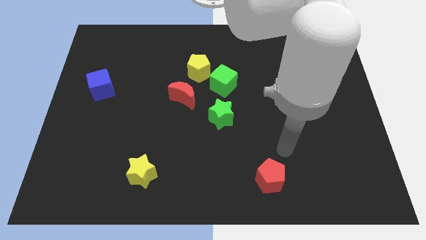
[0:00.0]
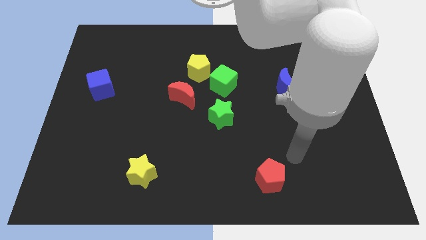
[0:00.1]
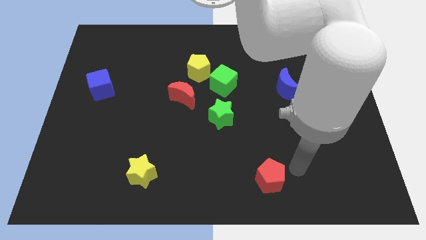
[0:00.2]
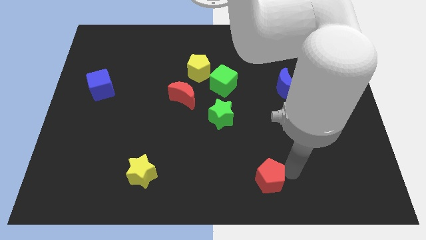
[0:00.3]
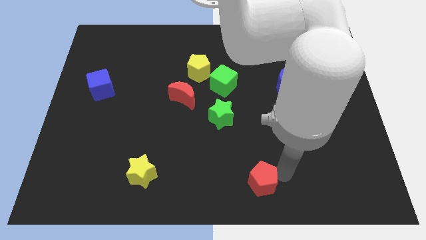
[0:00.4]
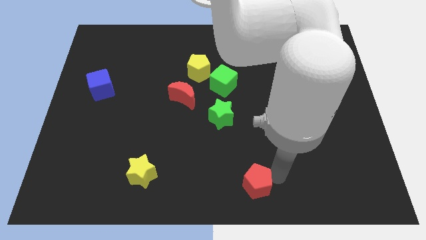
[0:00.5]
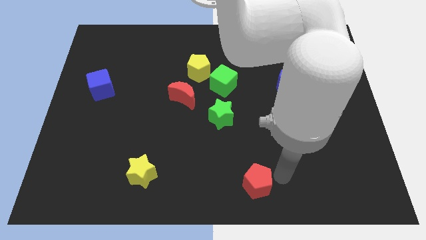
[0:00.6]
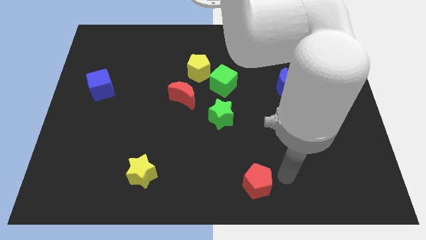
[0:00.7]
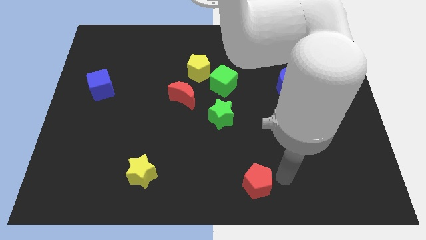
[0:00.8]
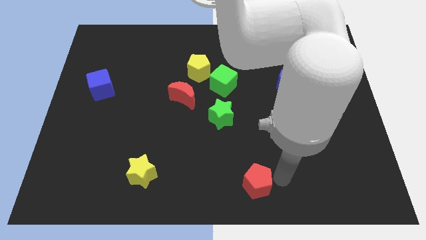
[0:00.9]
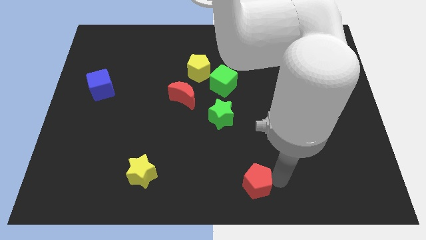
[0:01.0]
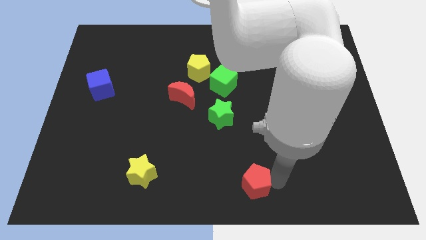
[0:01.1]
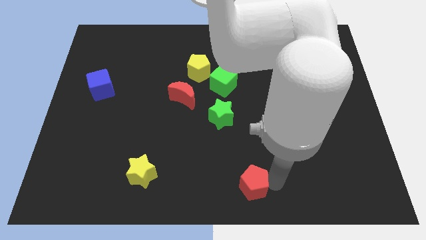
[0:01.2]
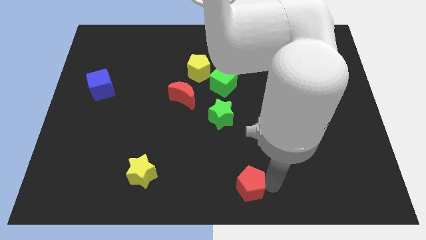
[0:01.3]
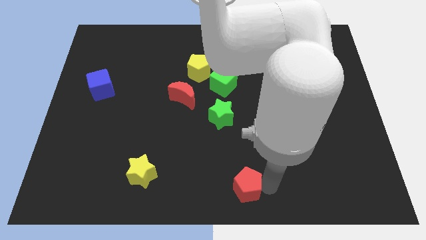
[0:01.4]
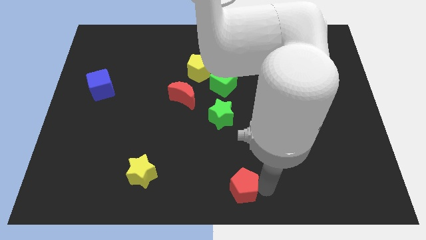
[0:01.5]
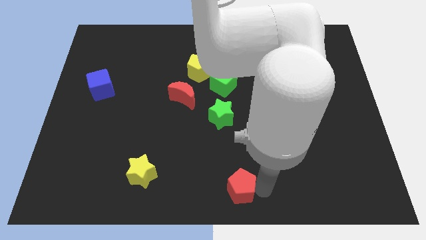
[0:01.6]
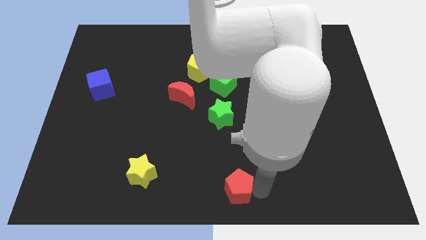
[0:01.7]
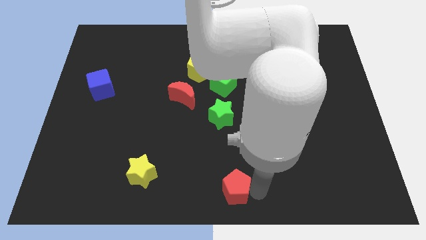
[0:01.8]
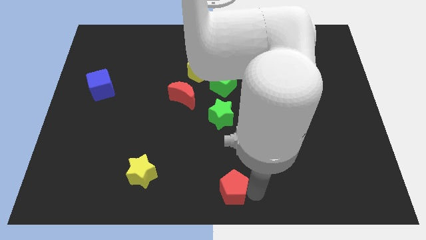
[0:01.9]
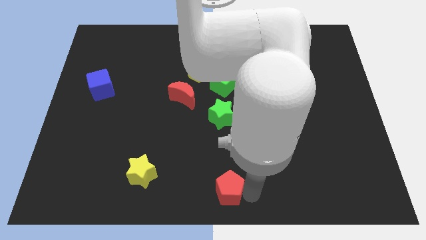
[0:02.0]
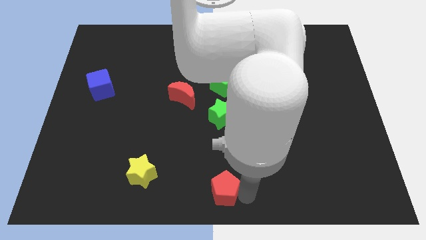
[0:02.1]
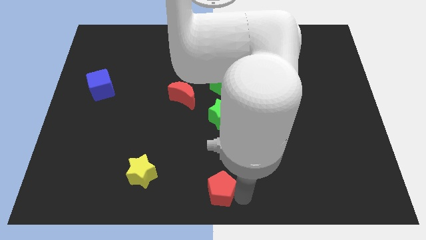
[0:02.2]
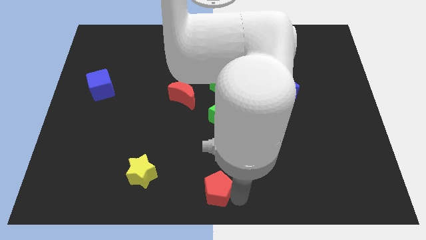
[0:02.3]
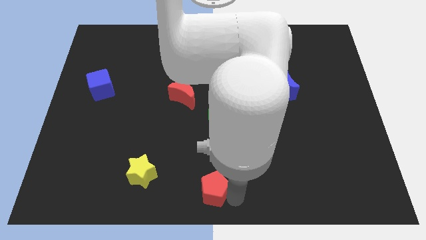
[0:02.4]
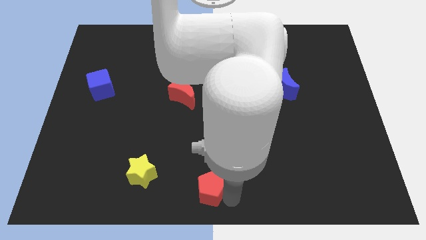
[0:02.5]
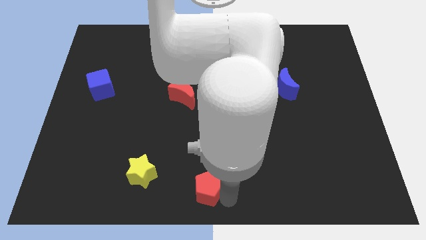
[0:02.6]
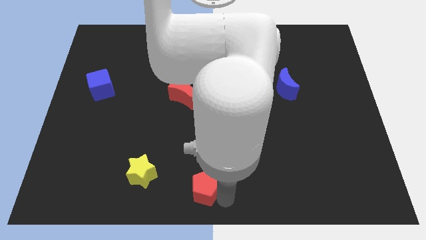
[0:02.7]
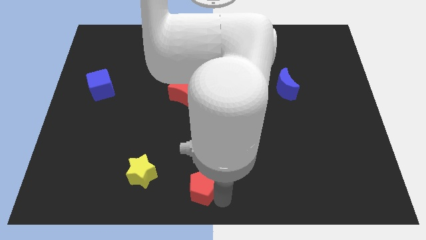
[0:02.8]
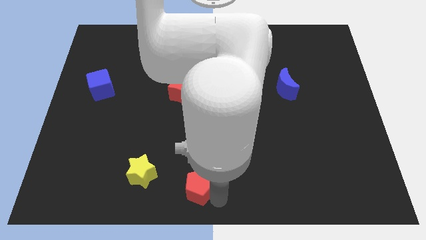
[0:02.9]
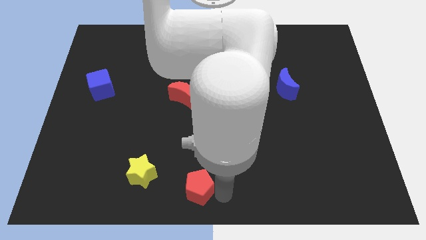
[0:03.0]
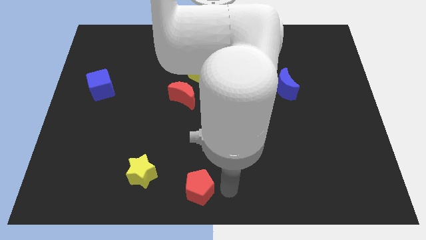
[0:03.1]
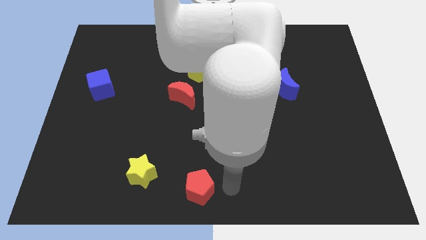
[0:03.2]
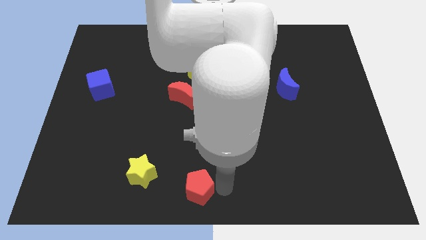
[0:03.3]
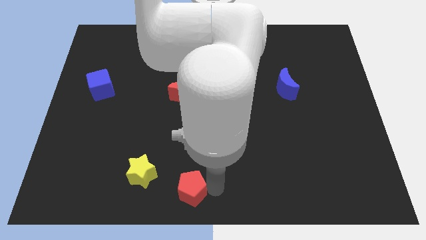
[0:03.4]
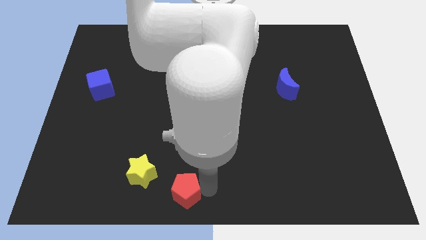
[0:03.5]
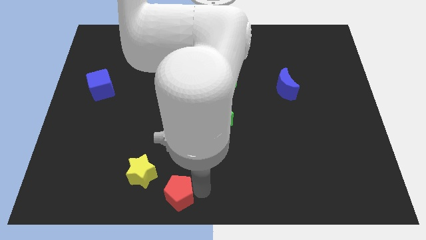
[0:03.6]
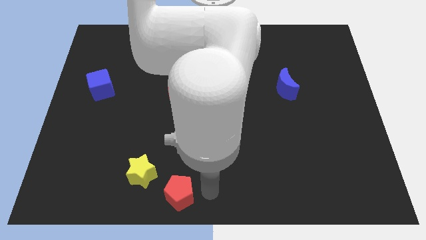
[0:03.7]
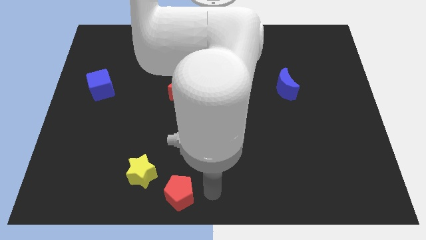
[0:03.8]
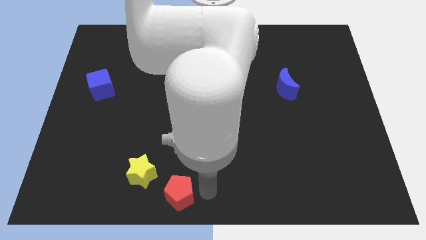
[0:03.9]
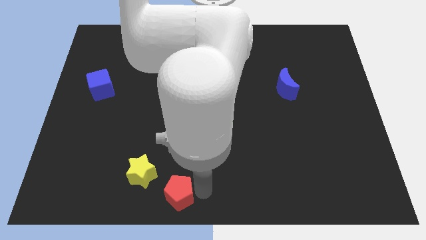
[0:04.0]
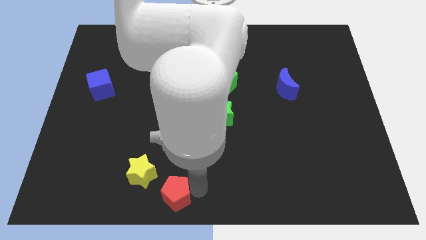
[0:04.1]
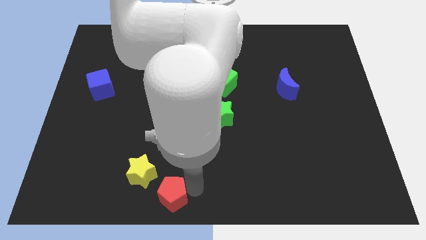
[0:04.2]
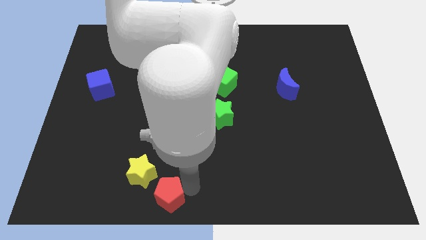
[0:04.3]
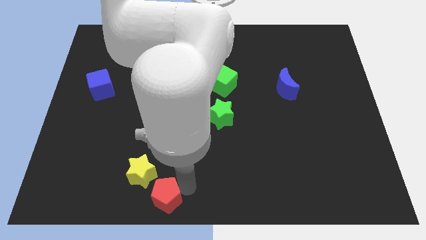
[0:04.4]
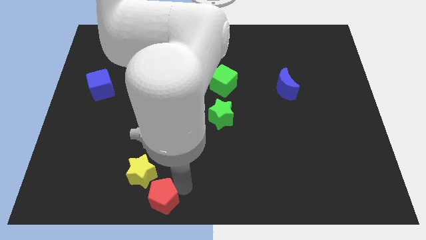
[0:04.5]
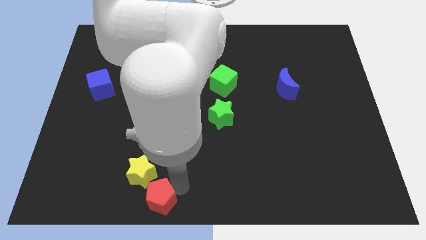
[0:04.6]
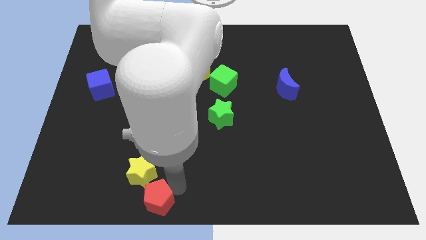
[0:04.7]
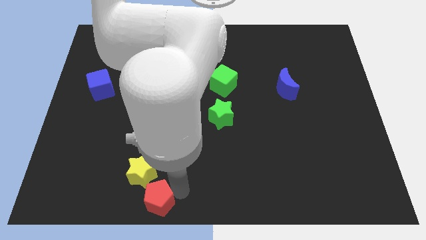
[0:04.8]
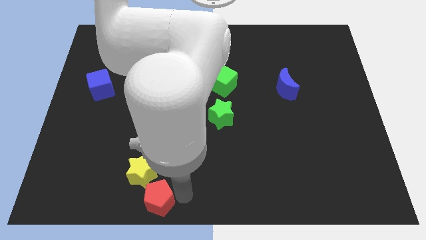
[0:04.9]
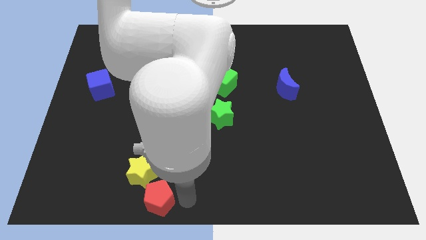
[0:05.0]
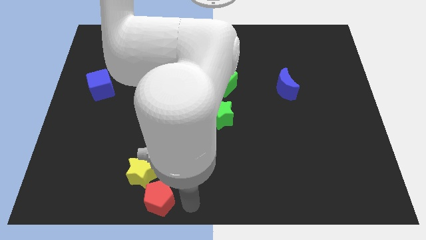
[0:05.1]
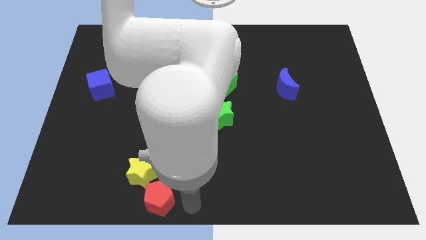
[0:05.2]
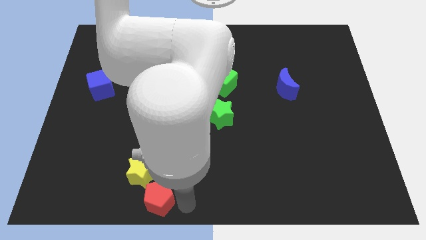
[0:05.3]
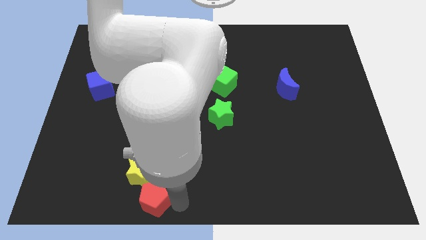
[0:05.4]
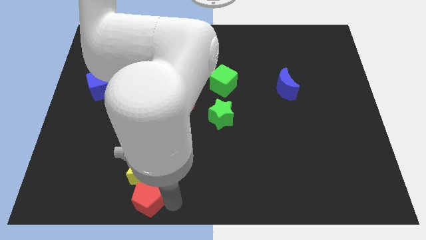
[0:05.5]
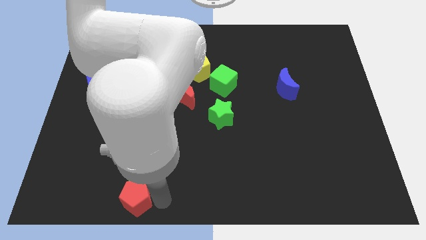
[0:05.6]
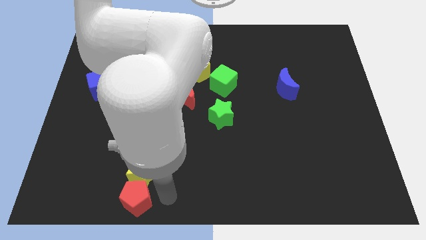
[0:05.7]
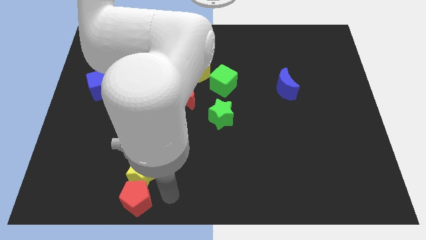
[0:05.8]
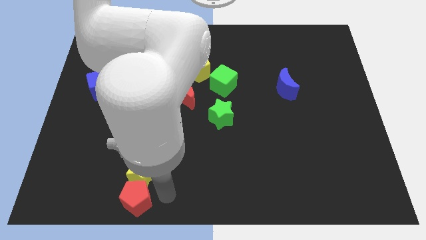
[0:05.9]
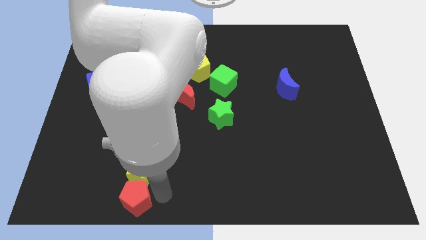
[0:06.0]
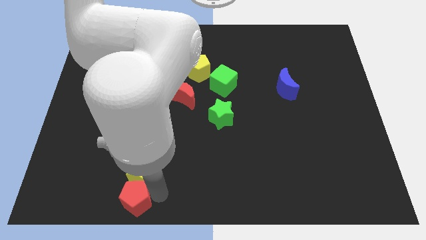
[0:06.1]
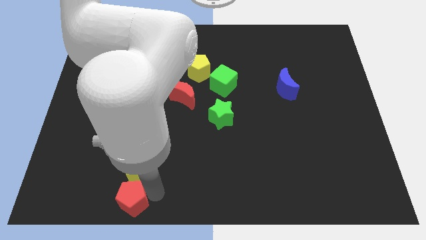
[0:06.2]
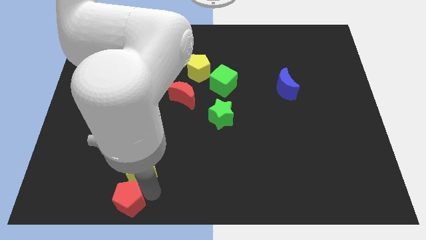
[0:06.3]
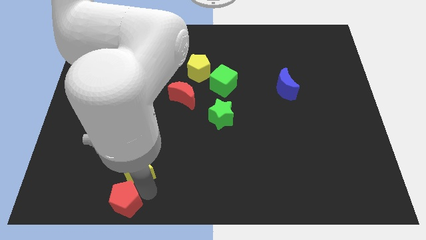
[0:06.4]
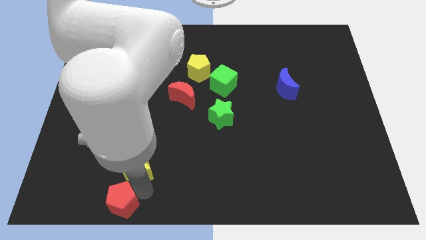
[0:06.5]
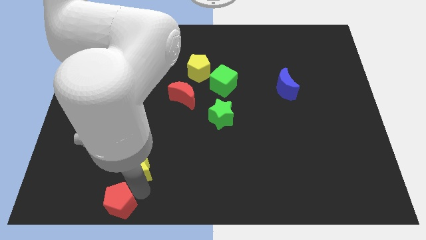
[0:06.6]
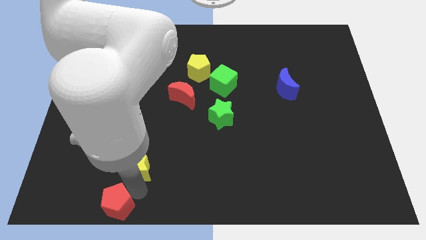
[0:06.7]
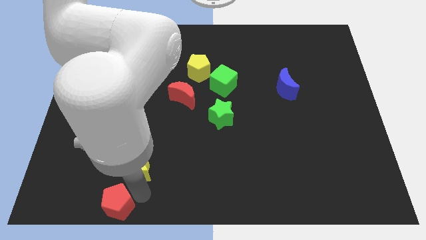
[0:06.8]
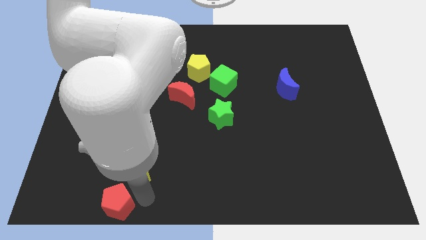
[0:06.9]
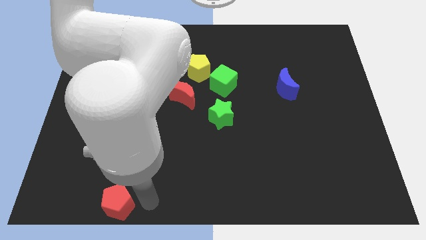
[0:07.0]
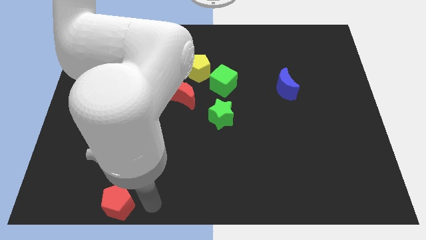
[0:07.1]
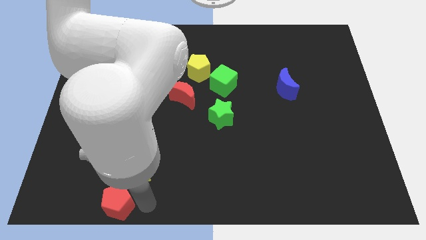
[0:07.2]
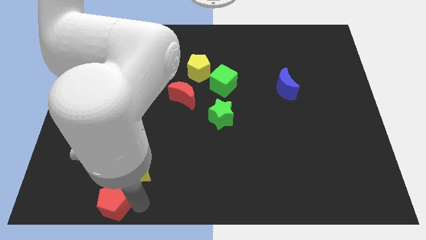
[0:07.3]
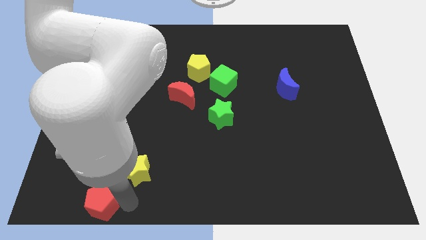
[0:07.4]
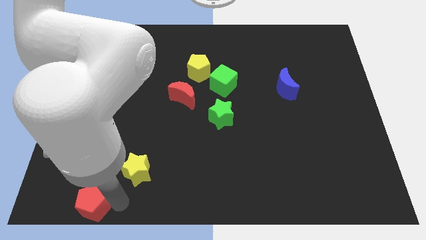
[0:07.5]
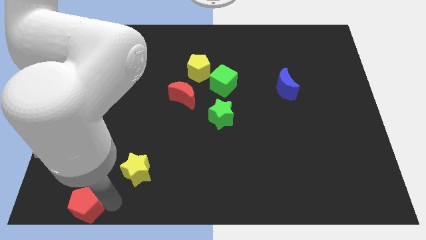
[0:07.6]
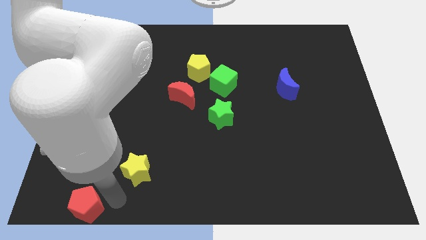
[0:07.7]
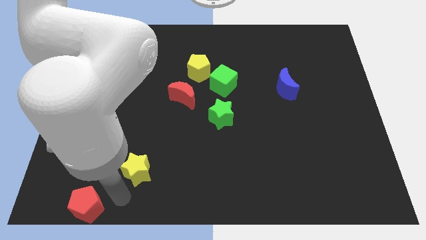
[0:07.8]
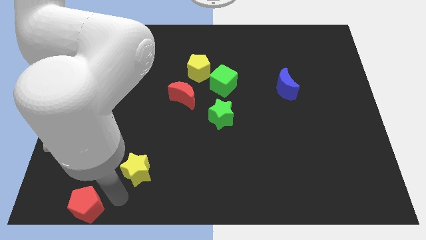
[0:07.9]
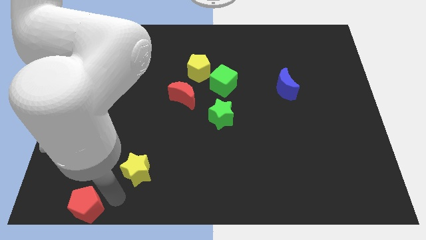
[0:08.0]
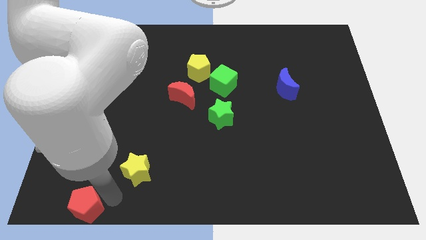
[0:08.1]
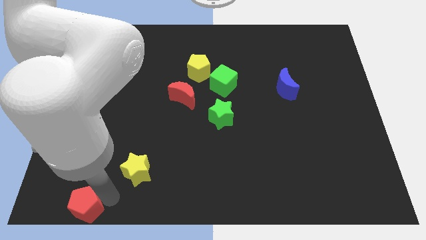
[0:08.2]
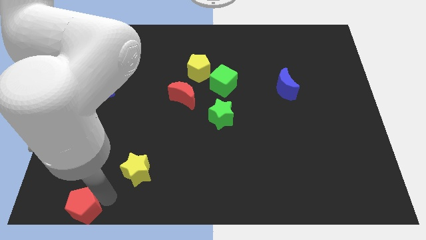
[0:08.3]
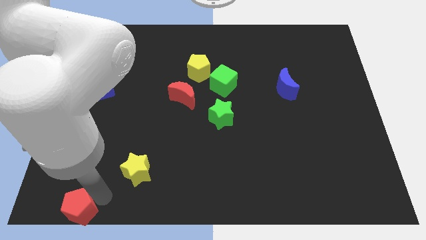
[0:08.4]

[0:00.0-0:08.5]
move the red pentagon to the bottom left of the board
